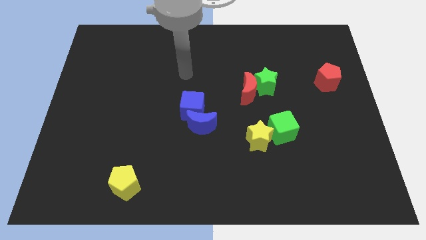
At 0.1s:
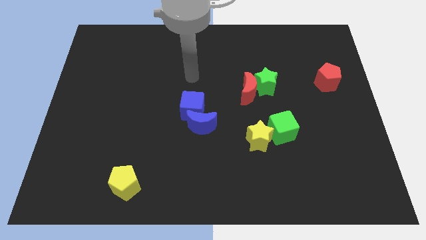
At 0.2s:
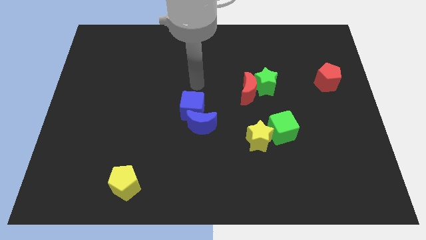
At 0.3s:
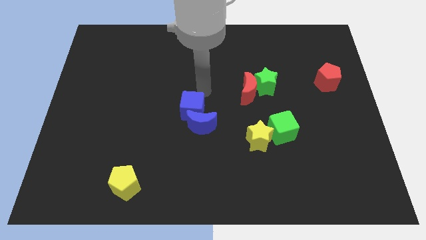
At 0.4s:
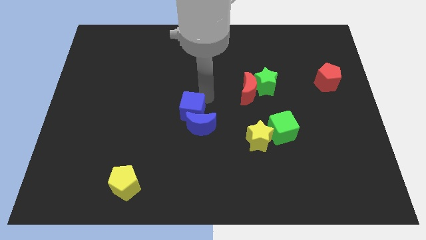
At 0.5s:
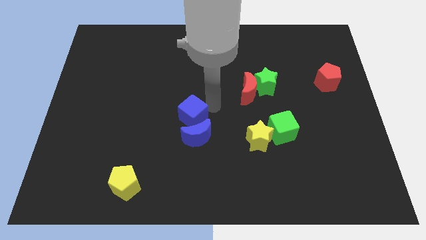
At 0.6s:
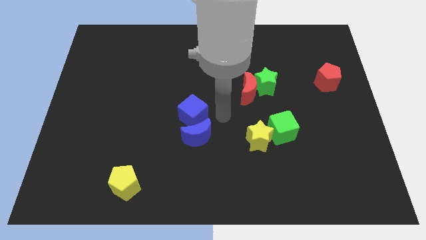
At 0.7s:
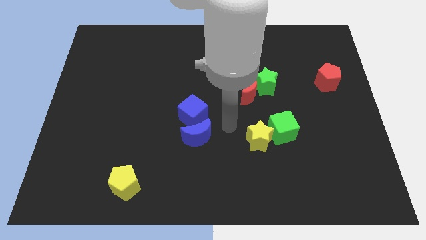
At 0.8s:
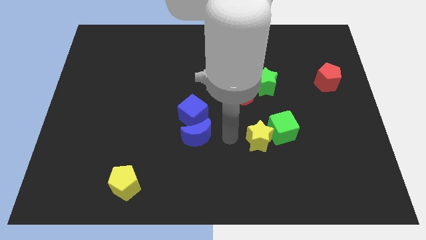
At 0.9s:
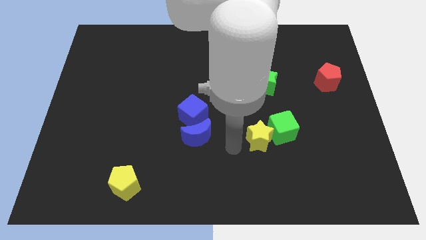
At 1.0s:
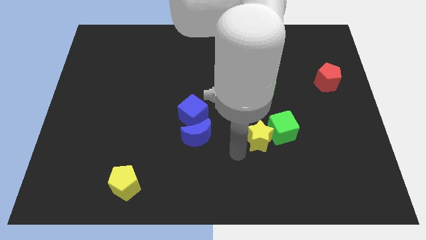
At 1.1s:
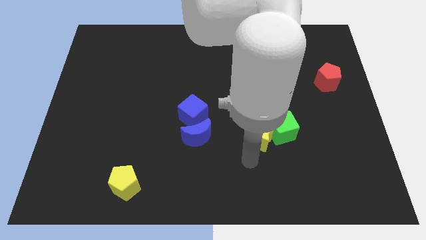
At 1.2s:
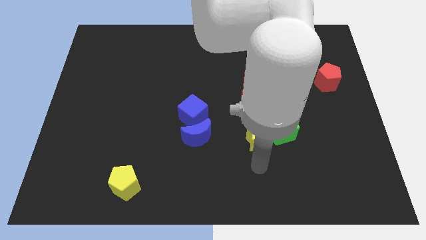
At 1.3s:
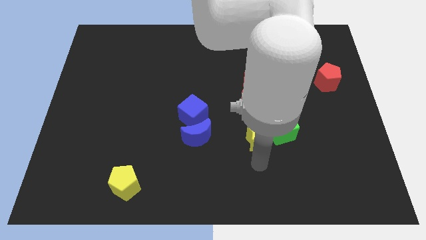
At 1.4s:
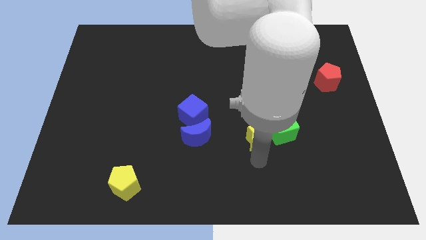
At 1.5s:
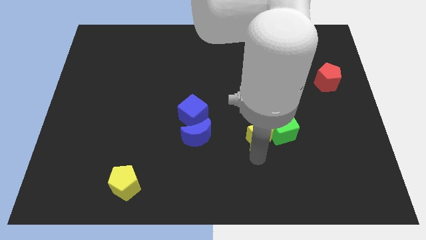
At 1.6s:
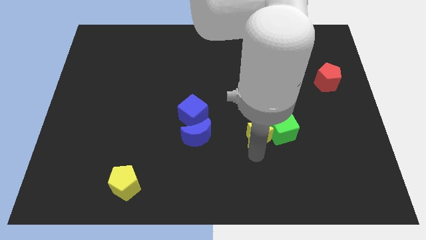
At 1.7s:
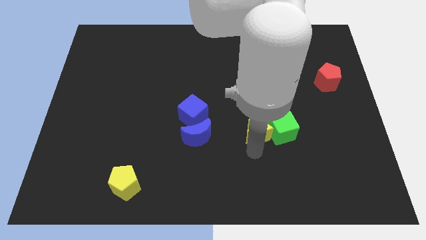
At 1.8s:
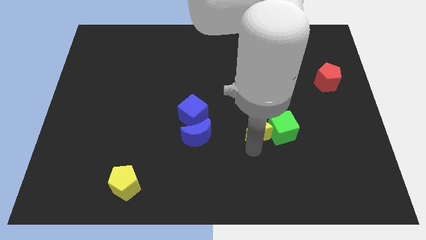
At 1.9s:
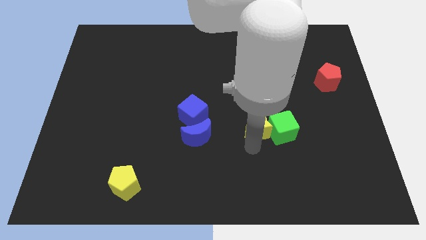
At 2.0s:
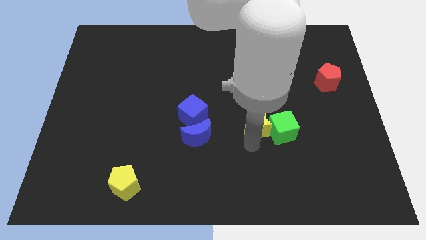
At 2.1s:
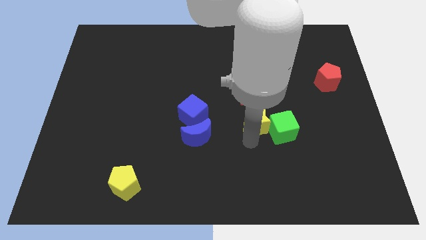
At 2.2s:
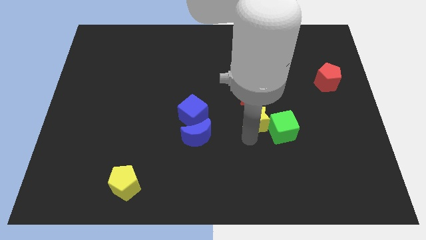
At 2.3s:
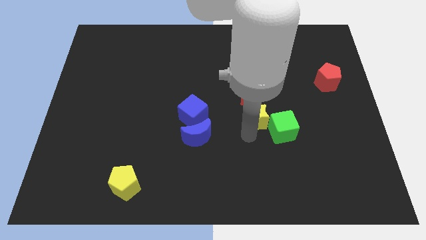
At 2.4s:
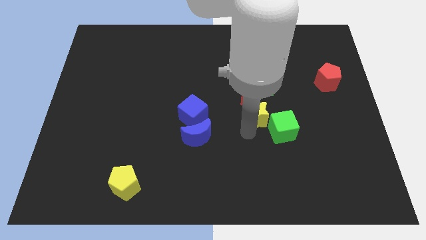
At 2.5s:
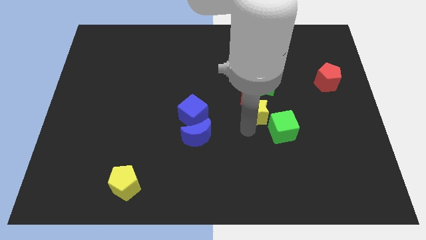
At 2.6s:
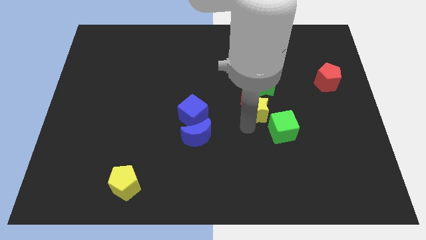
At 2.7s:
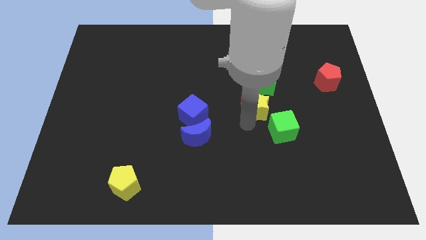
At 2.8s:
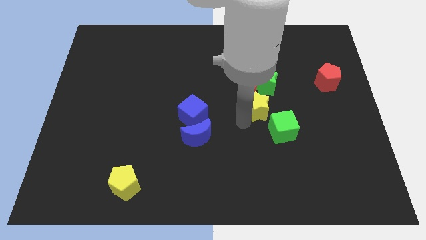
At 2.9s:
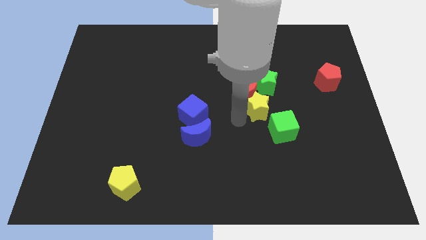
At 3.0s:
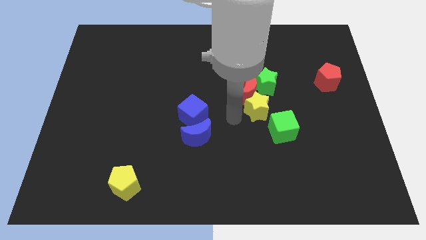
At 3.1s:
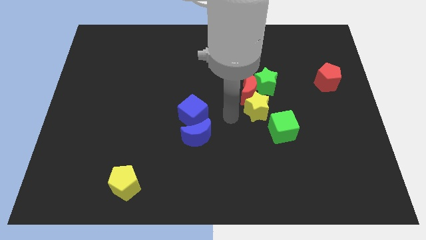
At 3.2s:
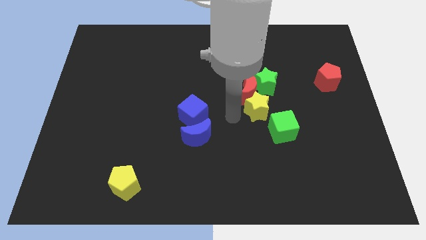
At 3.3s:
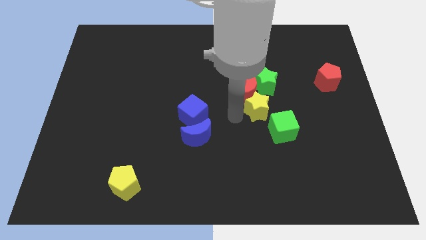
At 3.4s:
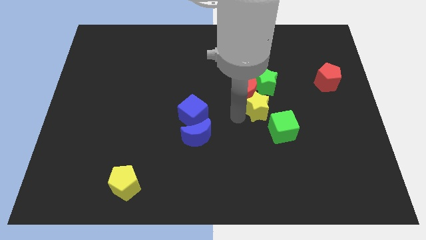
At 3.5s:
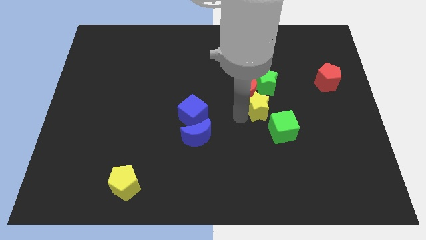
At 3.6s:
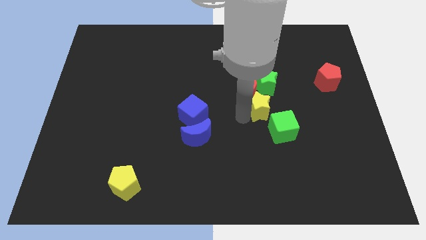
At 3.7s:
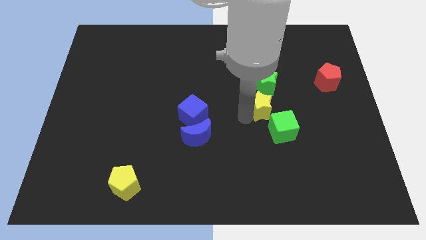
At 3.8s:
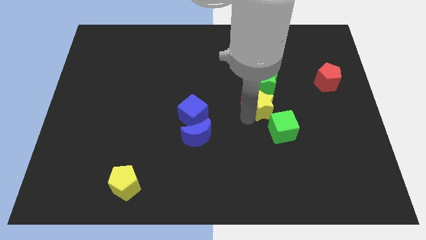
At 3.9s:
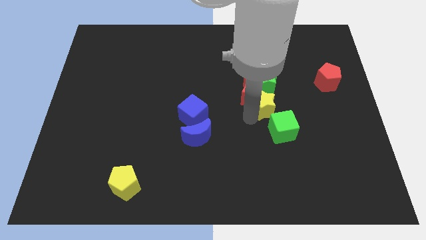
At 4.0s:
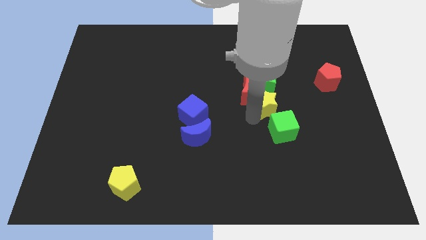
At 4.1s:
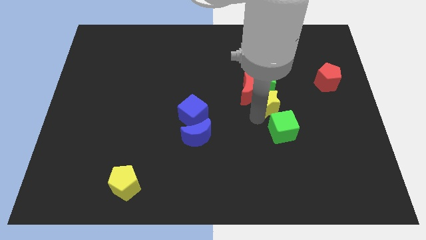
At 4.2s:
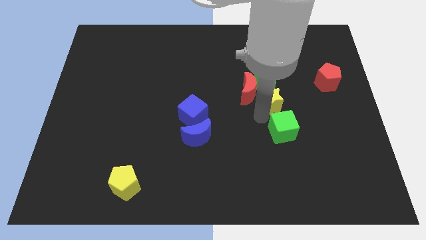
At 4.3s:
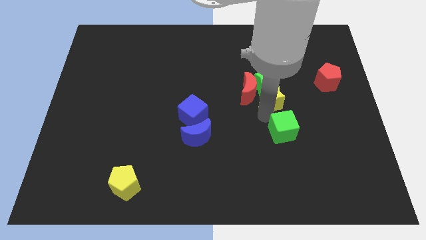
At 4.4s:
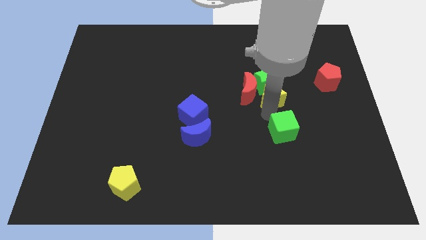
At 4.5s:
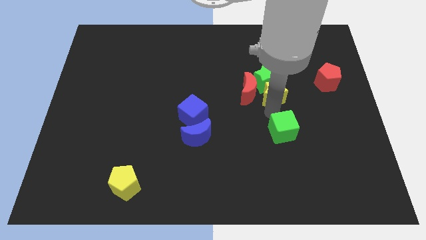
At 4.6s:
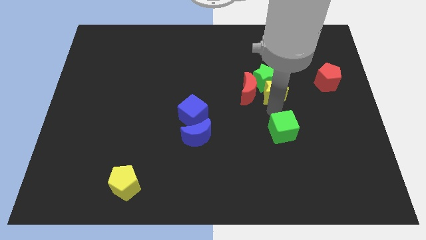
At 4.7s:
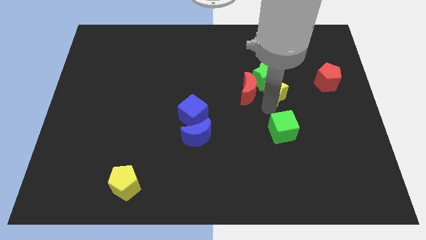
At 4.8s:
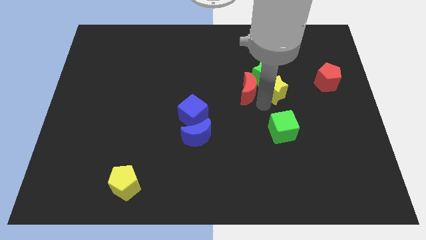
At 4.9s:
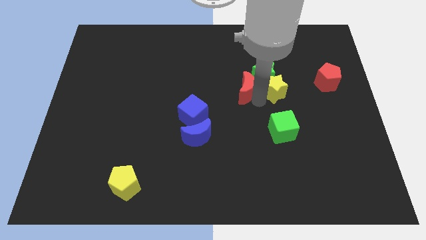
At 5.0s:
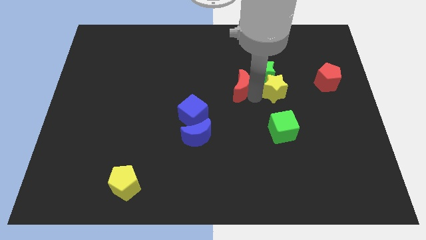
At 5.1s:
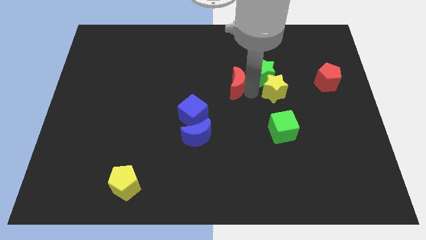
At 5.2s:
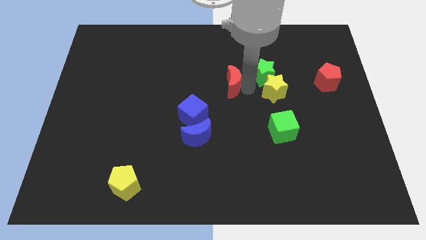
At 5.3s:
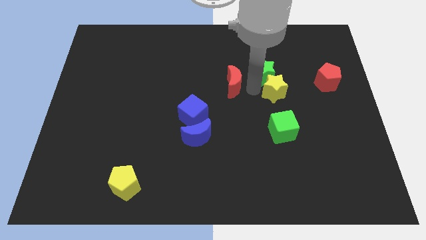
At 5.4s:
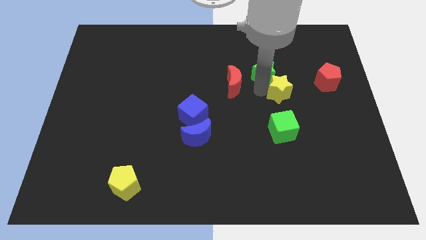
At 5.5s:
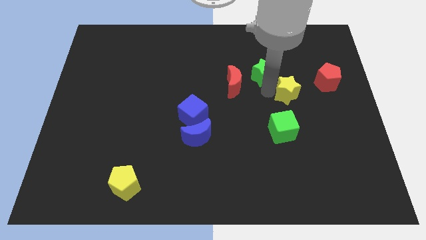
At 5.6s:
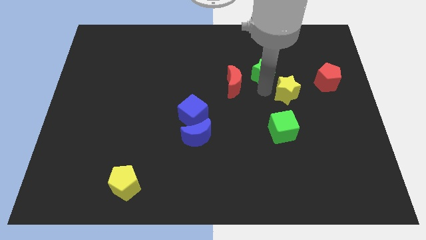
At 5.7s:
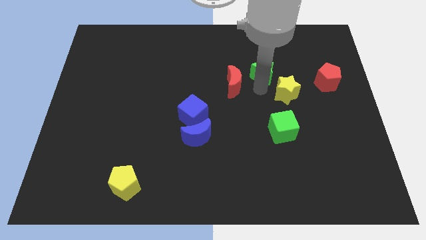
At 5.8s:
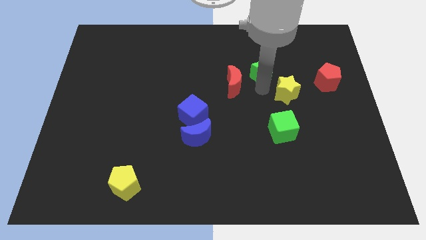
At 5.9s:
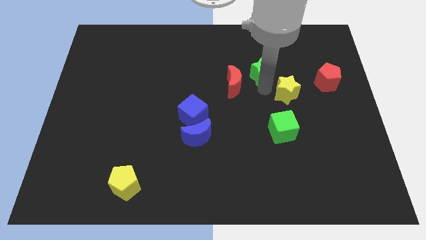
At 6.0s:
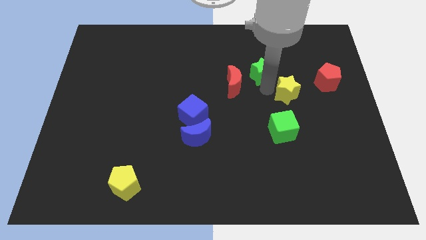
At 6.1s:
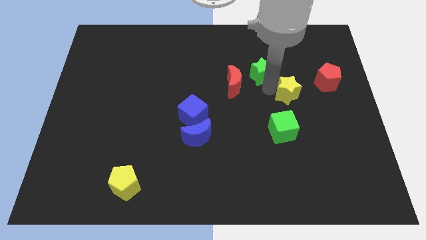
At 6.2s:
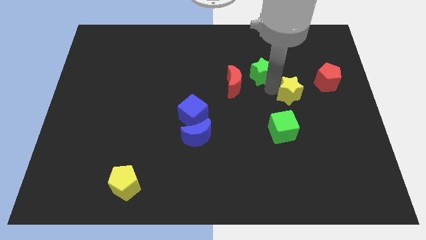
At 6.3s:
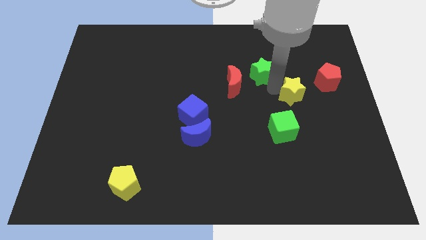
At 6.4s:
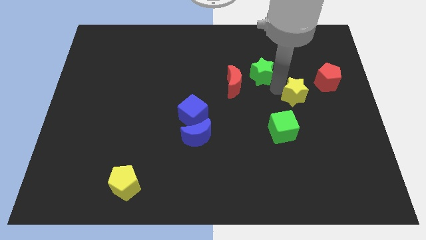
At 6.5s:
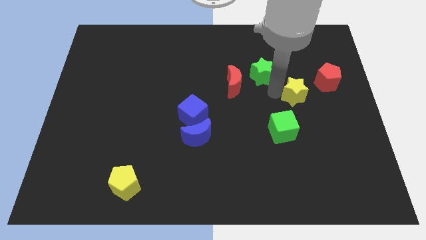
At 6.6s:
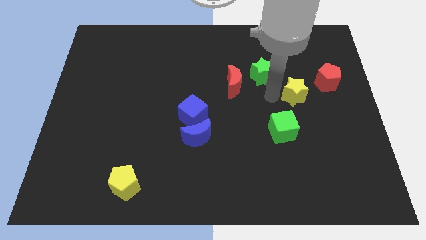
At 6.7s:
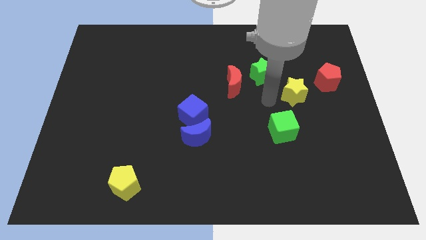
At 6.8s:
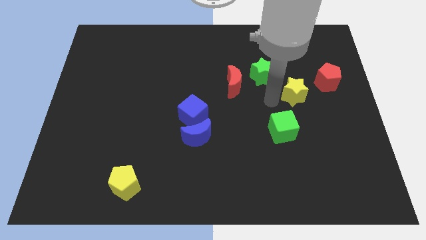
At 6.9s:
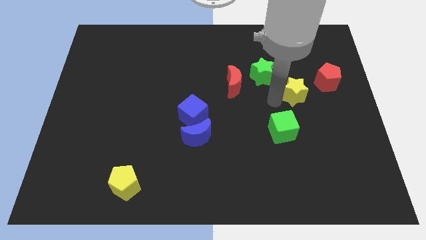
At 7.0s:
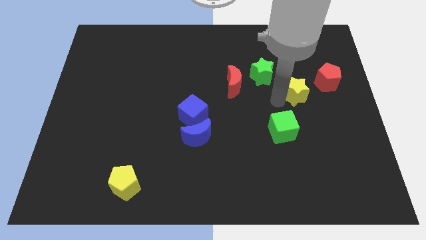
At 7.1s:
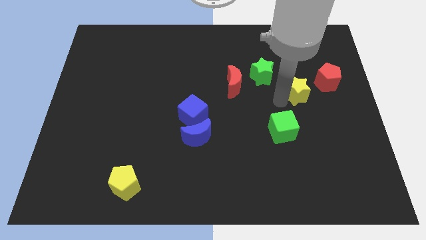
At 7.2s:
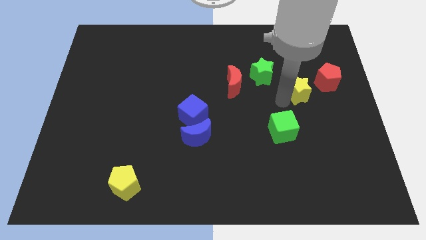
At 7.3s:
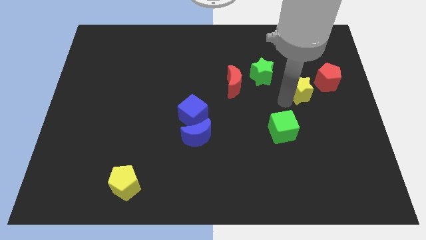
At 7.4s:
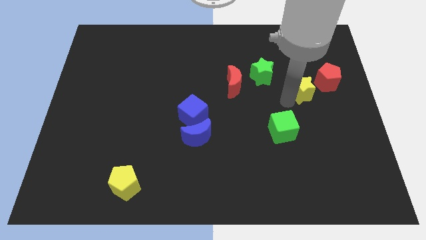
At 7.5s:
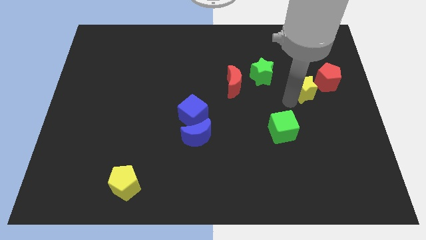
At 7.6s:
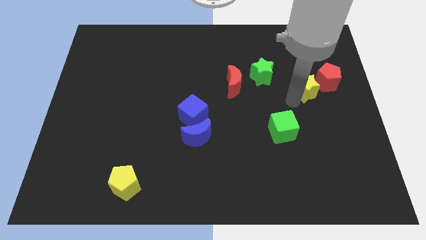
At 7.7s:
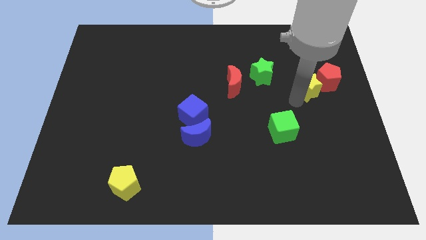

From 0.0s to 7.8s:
push the yellow star towards the red pentagon
